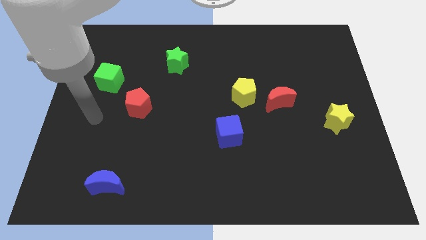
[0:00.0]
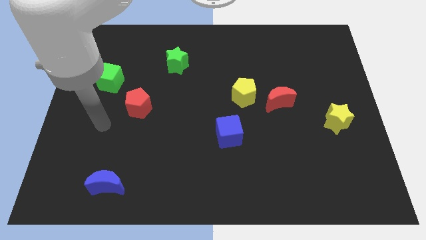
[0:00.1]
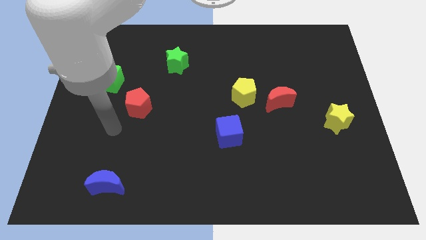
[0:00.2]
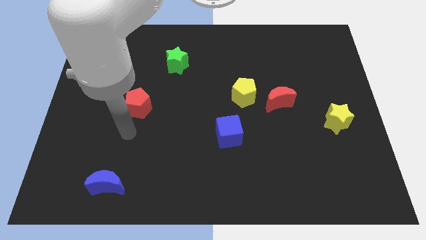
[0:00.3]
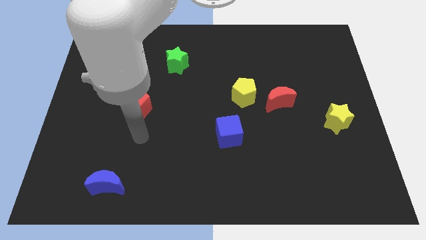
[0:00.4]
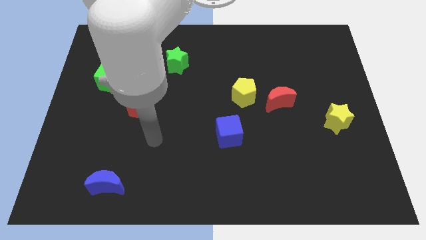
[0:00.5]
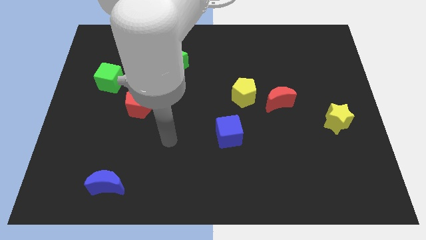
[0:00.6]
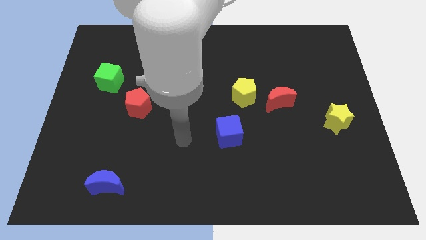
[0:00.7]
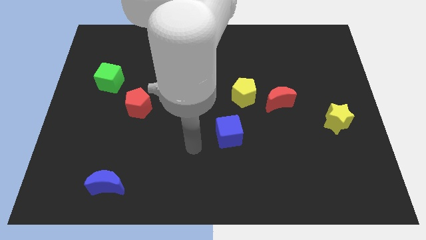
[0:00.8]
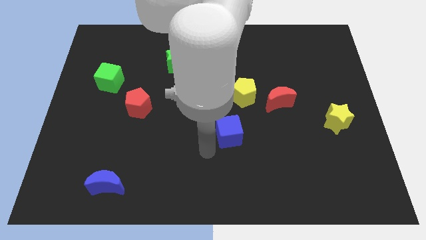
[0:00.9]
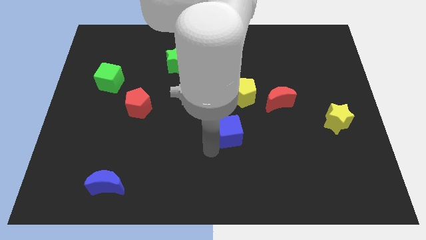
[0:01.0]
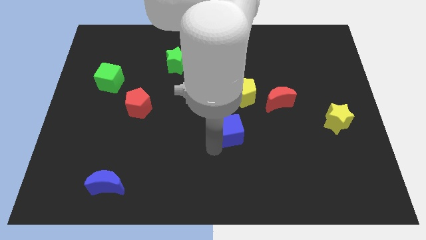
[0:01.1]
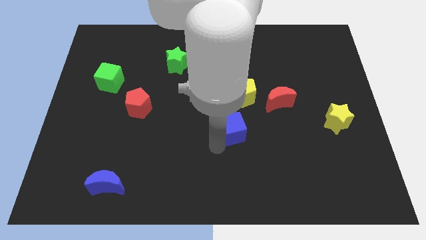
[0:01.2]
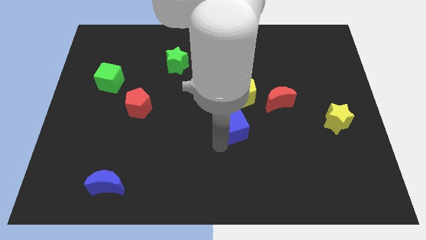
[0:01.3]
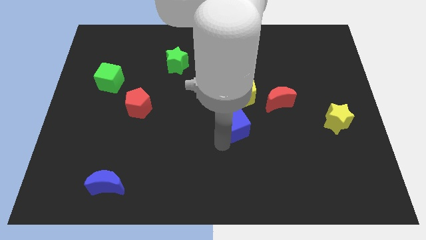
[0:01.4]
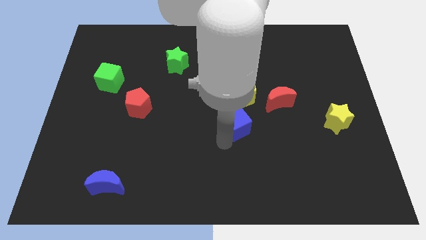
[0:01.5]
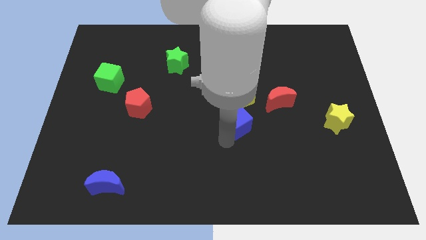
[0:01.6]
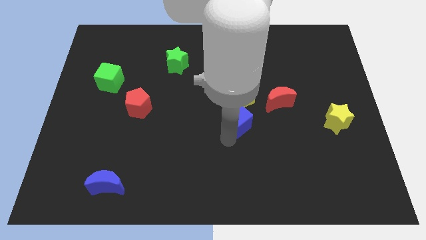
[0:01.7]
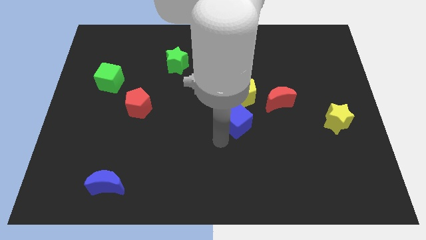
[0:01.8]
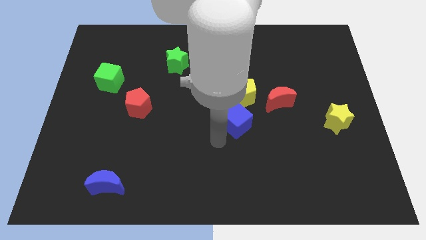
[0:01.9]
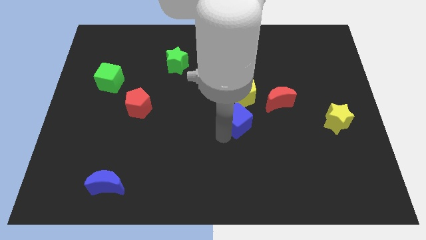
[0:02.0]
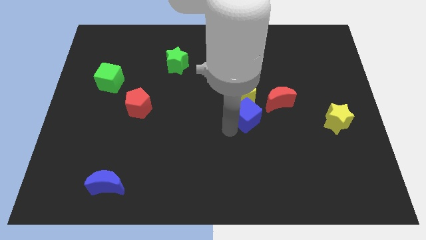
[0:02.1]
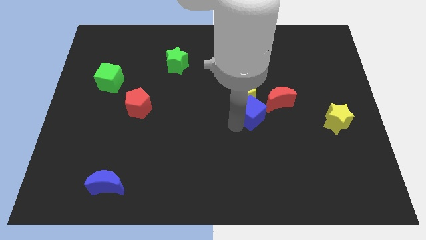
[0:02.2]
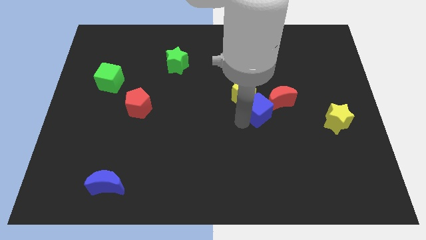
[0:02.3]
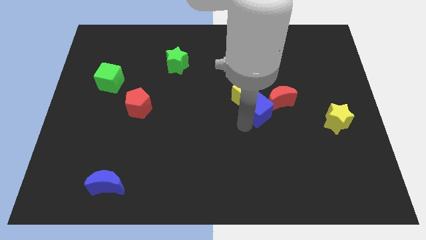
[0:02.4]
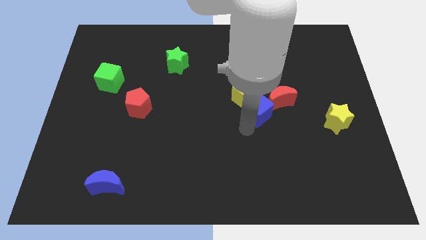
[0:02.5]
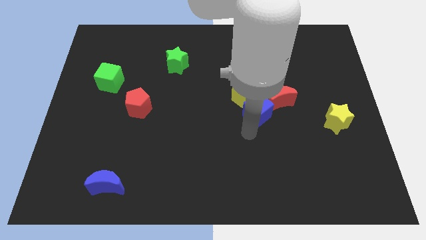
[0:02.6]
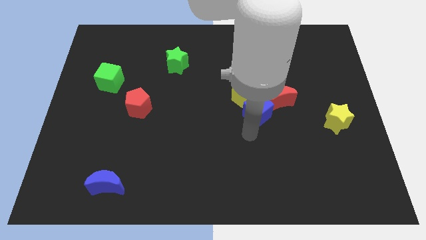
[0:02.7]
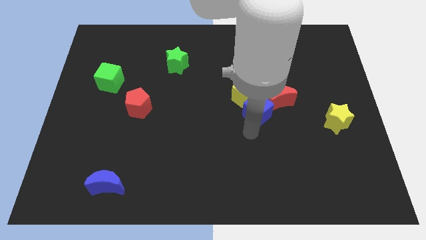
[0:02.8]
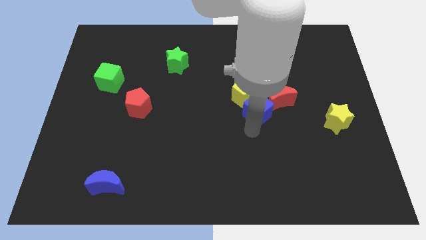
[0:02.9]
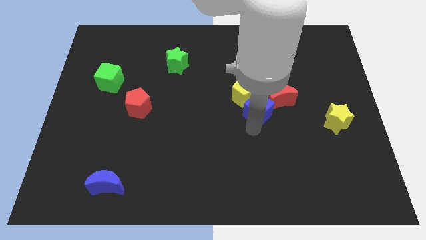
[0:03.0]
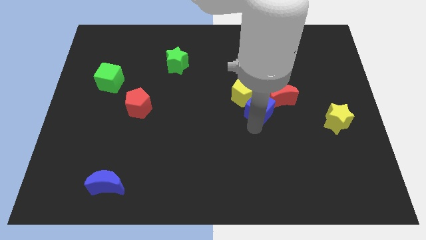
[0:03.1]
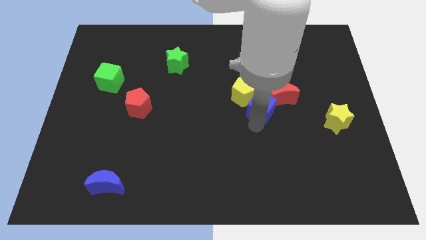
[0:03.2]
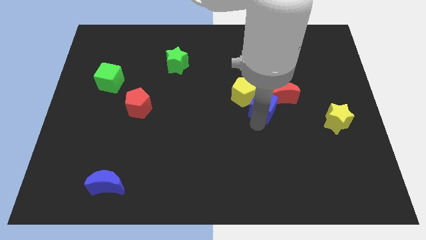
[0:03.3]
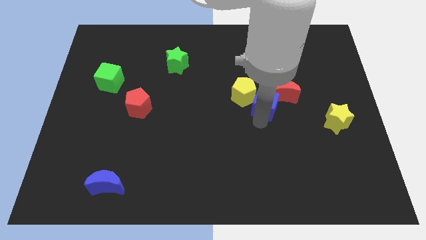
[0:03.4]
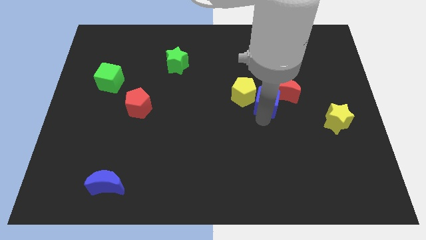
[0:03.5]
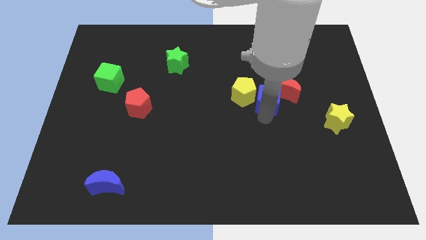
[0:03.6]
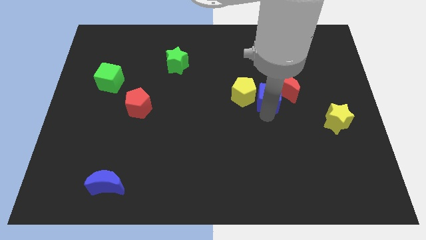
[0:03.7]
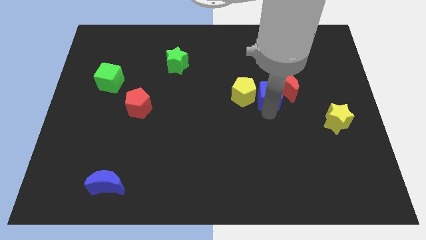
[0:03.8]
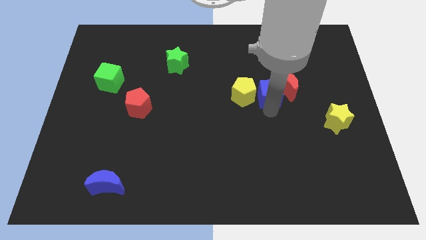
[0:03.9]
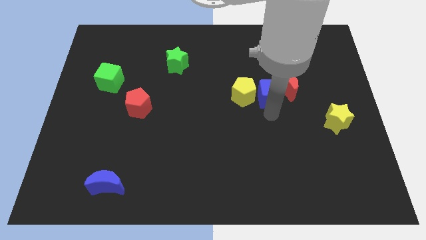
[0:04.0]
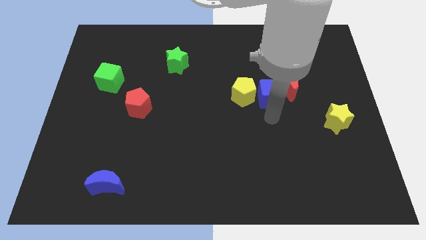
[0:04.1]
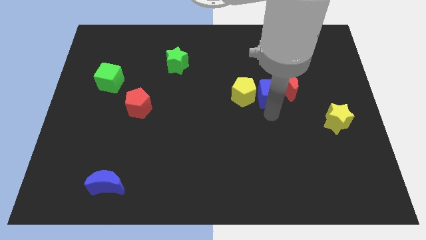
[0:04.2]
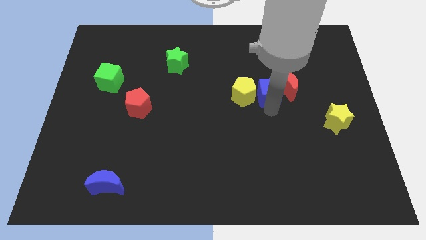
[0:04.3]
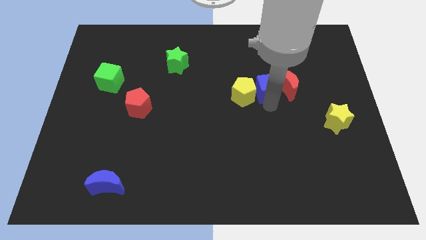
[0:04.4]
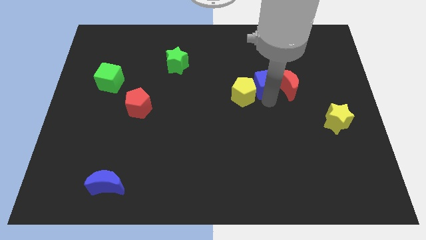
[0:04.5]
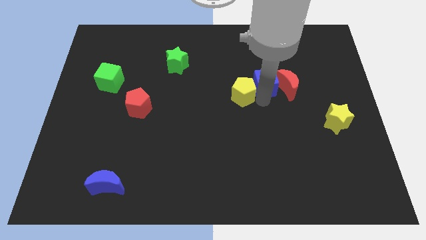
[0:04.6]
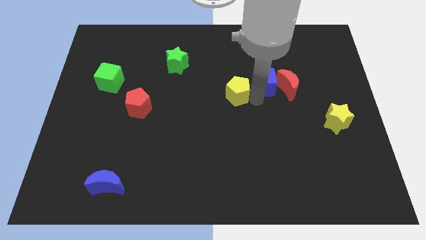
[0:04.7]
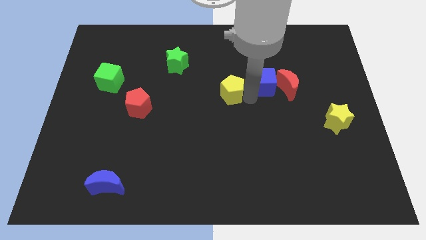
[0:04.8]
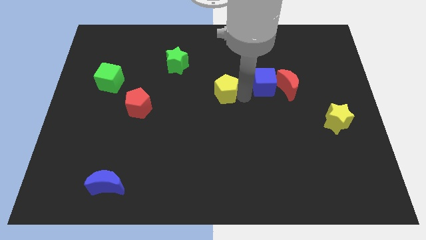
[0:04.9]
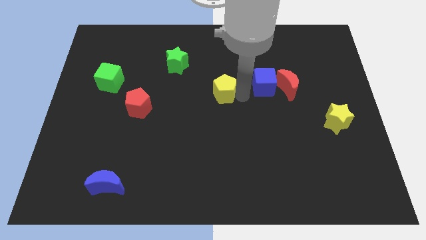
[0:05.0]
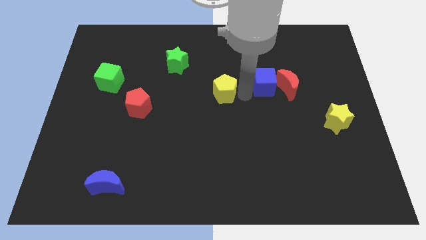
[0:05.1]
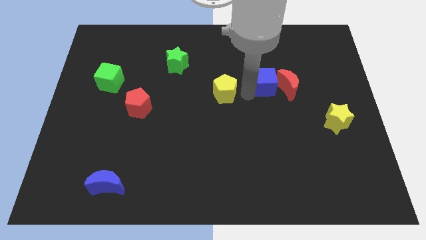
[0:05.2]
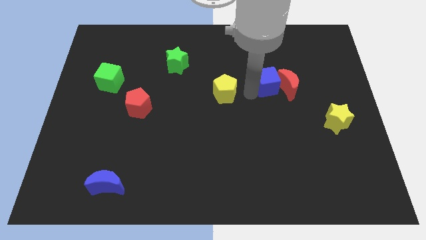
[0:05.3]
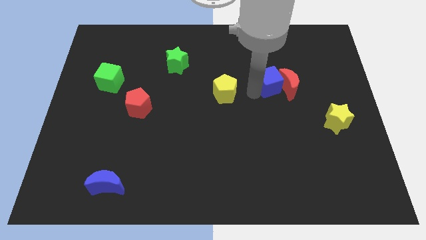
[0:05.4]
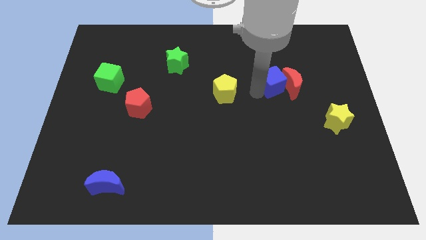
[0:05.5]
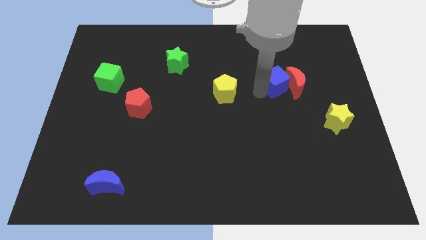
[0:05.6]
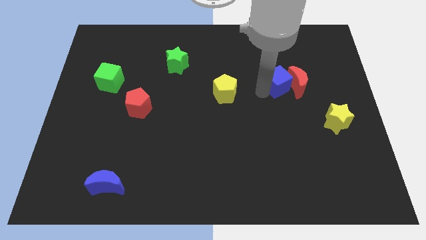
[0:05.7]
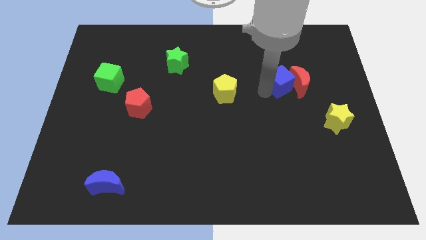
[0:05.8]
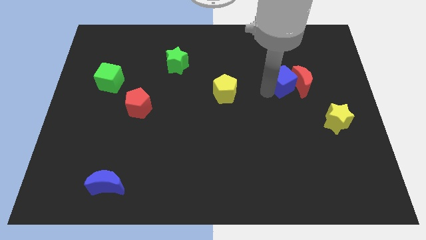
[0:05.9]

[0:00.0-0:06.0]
push the blue cube diagonally up and to the right

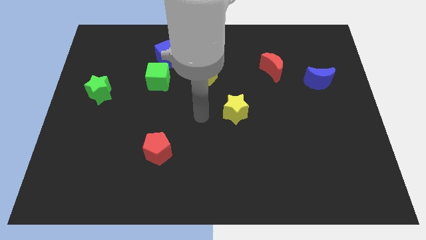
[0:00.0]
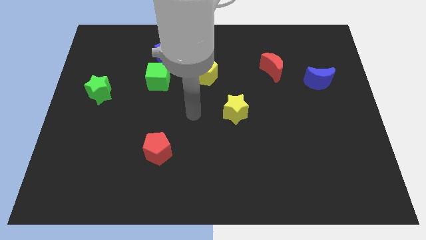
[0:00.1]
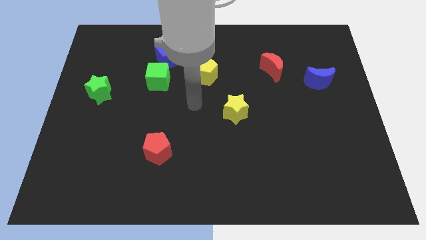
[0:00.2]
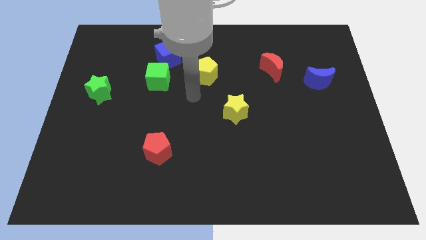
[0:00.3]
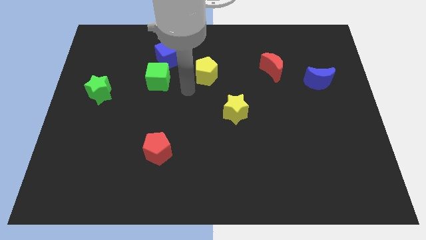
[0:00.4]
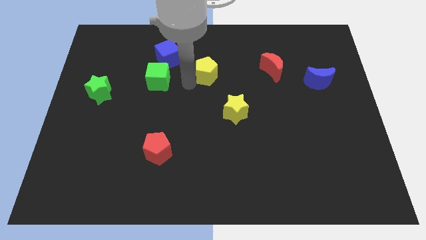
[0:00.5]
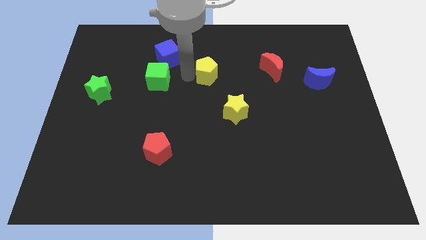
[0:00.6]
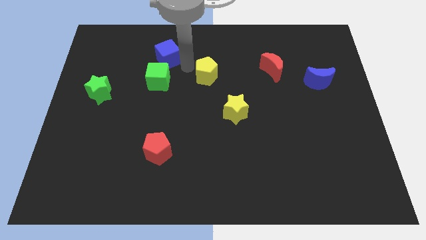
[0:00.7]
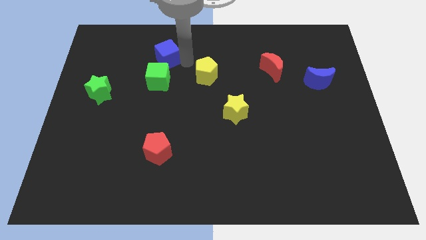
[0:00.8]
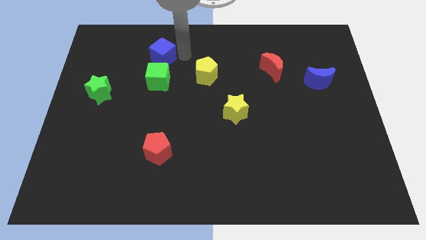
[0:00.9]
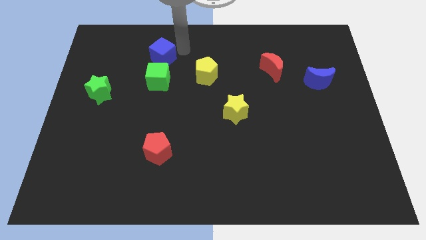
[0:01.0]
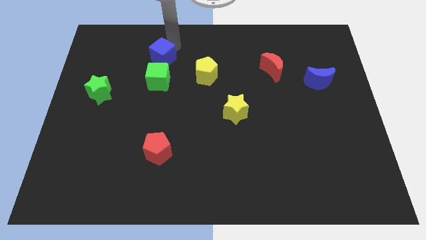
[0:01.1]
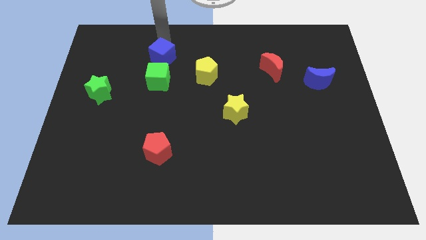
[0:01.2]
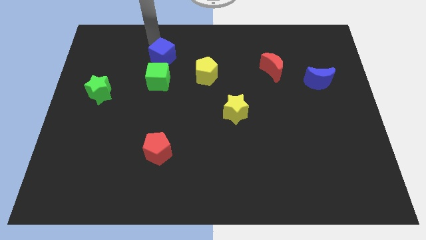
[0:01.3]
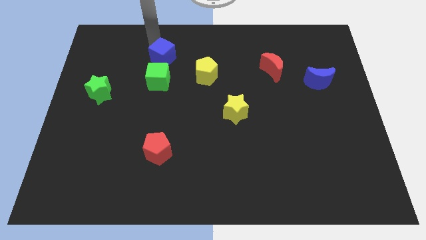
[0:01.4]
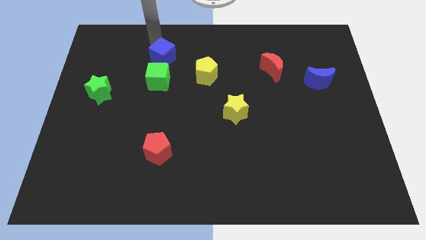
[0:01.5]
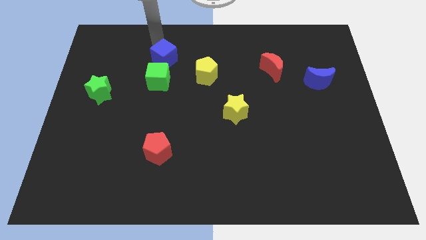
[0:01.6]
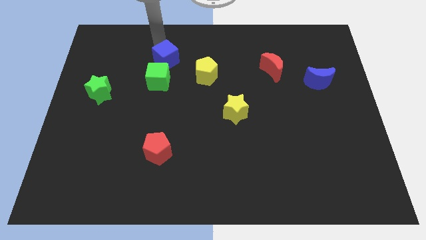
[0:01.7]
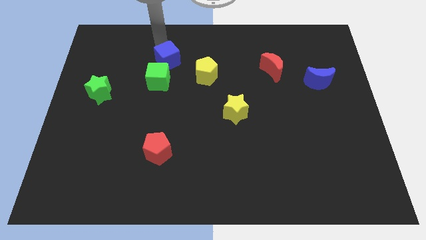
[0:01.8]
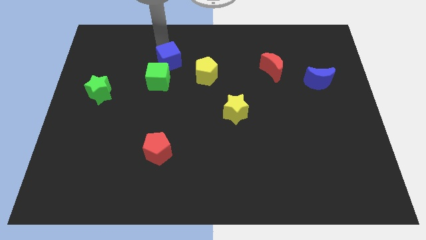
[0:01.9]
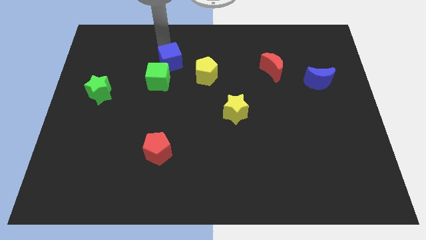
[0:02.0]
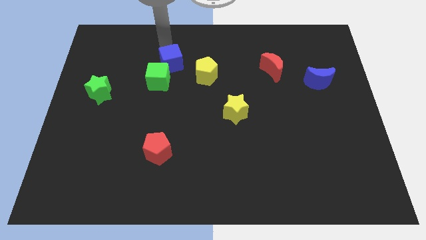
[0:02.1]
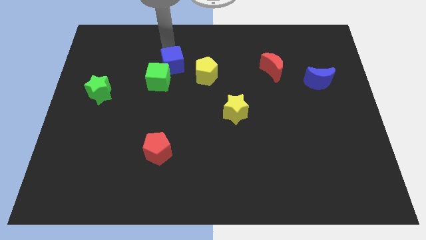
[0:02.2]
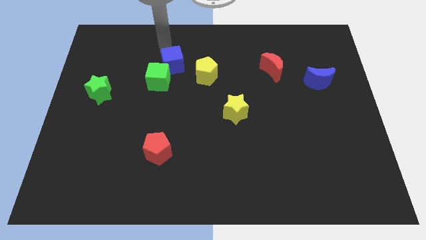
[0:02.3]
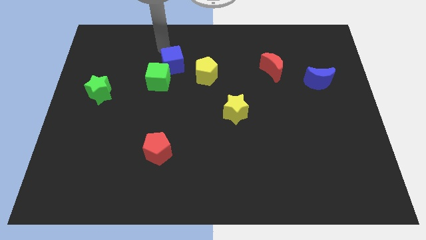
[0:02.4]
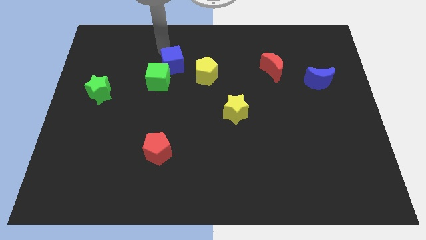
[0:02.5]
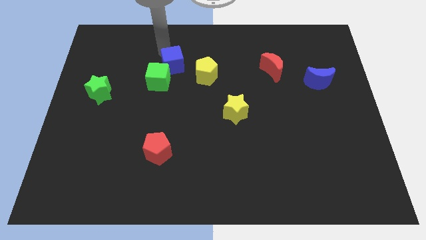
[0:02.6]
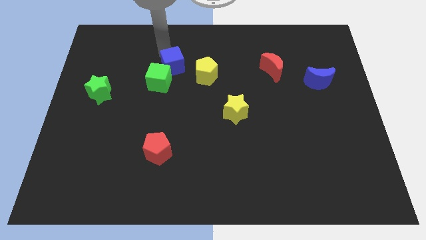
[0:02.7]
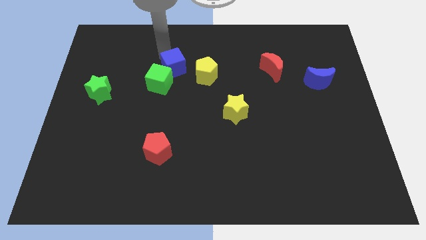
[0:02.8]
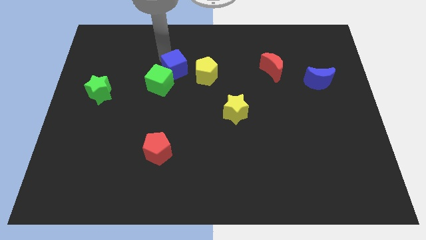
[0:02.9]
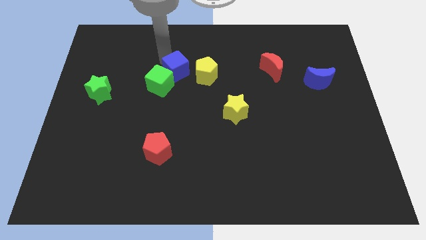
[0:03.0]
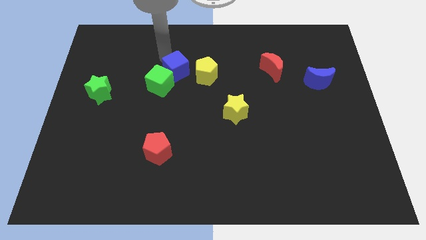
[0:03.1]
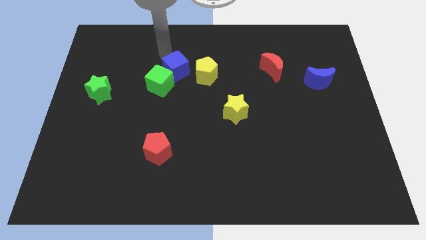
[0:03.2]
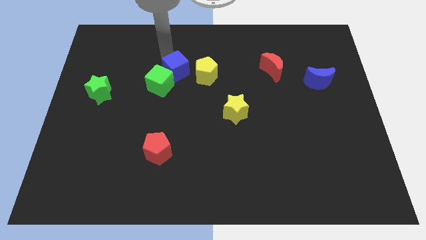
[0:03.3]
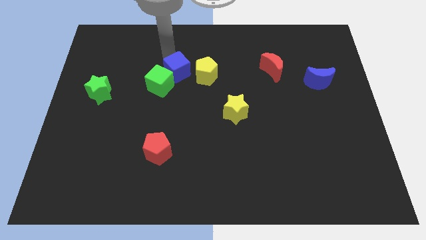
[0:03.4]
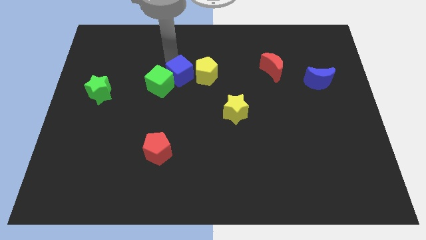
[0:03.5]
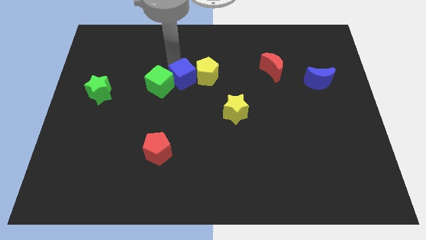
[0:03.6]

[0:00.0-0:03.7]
slightly move the blue cube down and to the right
